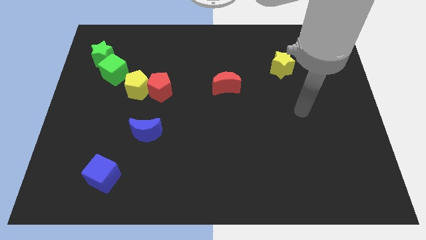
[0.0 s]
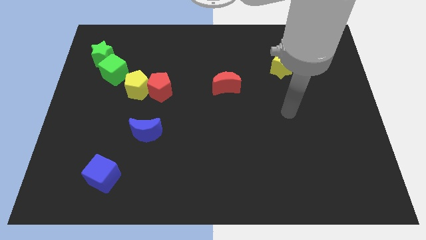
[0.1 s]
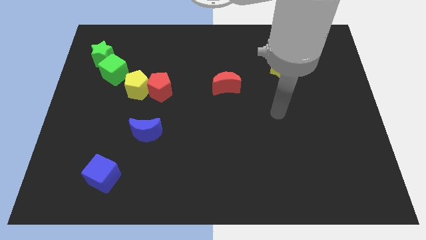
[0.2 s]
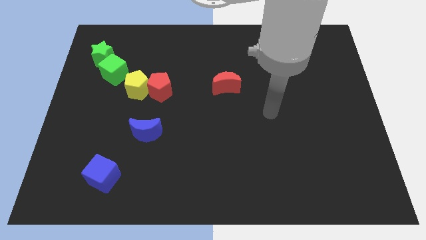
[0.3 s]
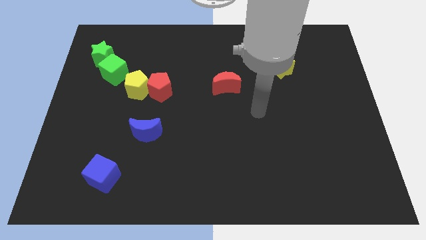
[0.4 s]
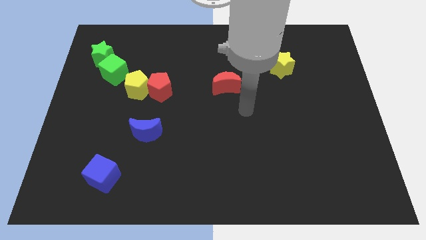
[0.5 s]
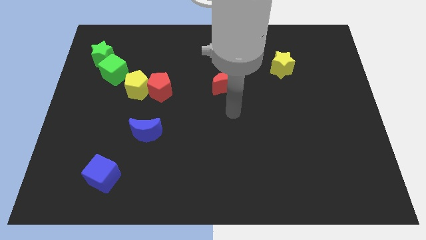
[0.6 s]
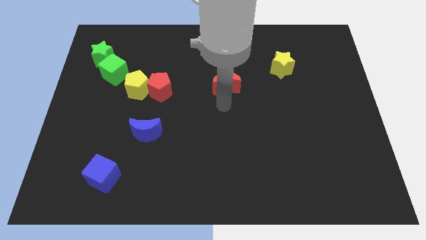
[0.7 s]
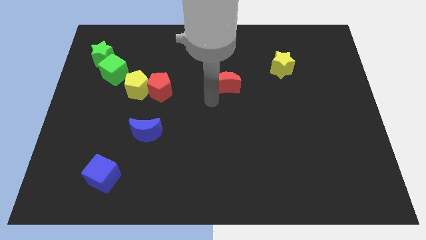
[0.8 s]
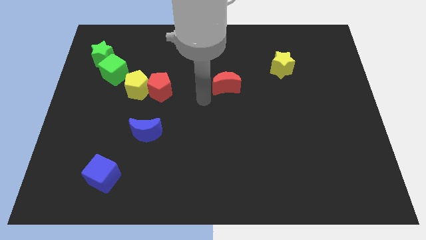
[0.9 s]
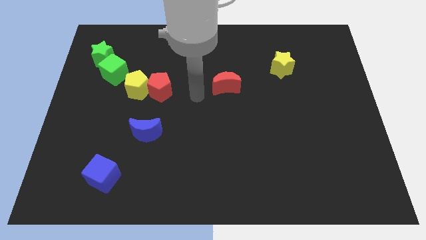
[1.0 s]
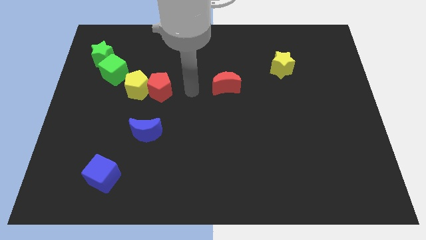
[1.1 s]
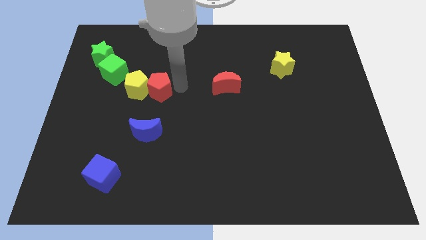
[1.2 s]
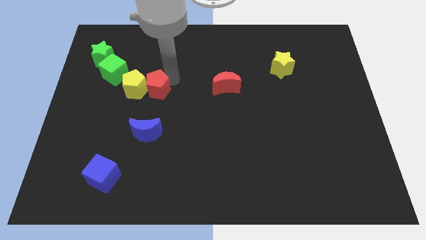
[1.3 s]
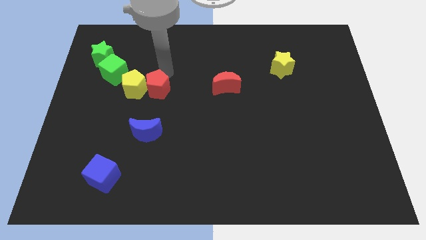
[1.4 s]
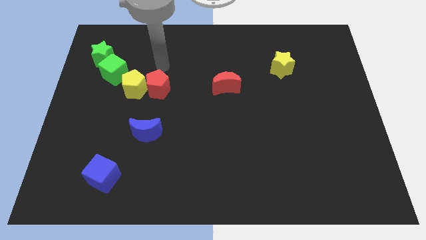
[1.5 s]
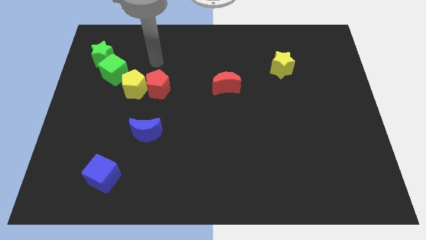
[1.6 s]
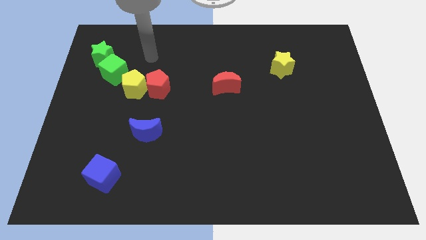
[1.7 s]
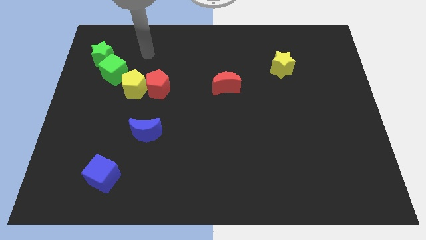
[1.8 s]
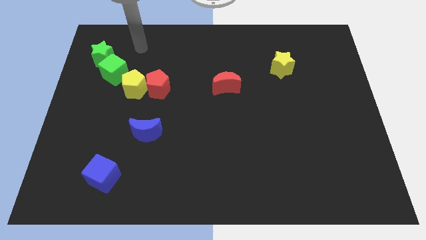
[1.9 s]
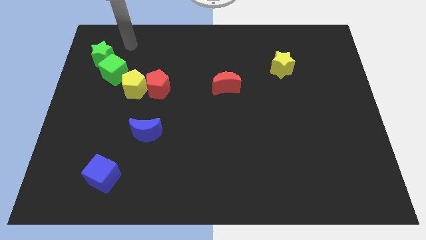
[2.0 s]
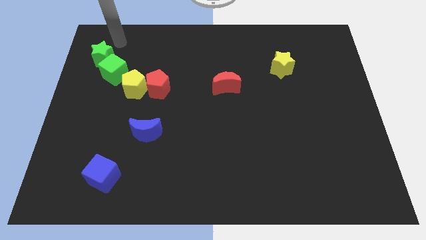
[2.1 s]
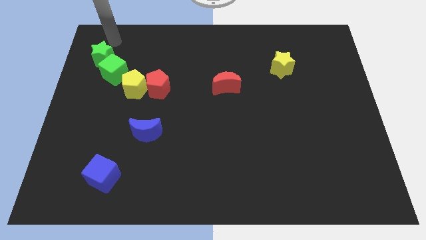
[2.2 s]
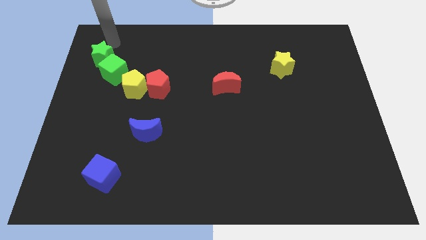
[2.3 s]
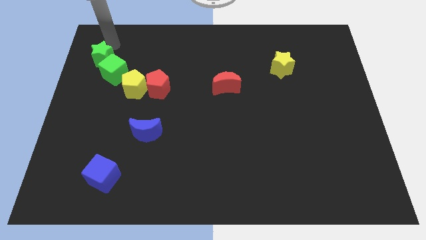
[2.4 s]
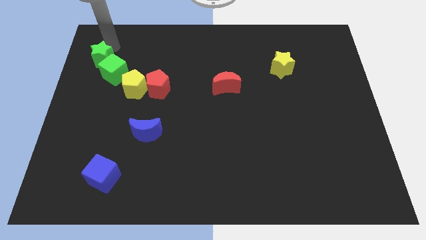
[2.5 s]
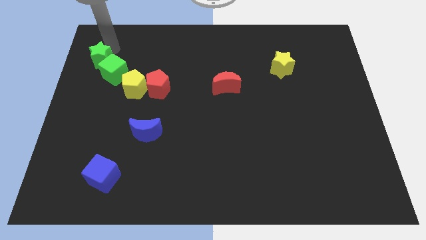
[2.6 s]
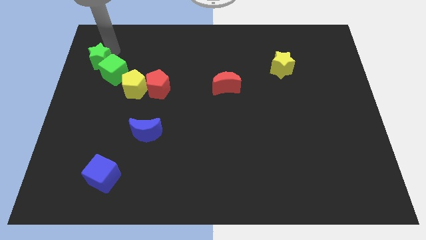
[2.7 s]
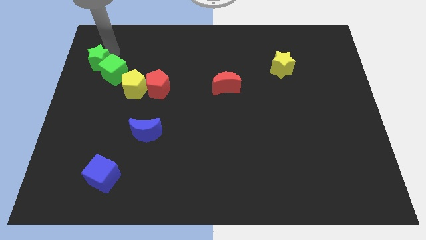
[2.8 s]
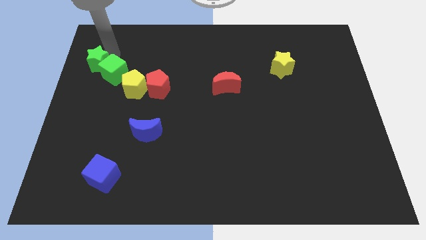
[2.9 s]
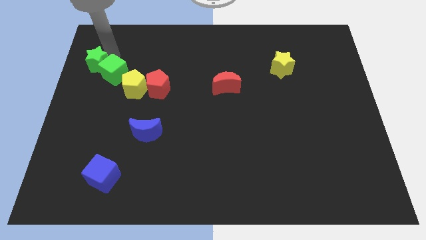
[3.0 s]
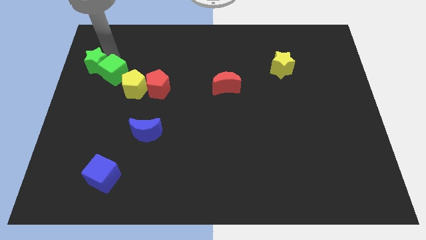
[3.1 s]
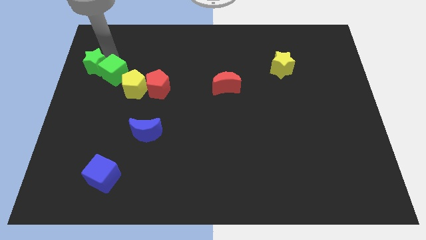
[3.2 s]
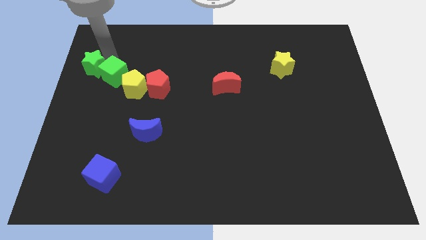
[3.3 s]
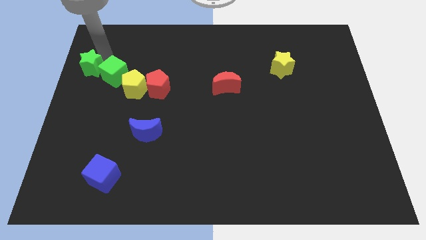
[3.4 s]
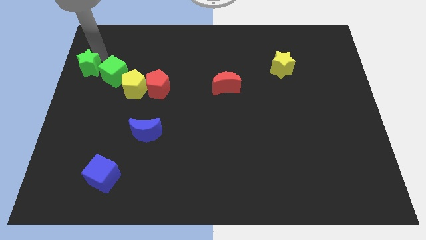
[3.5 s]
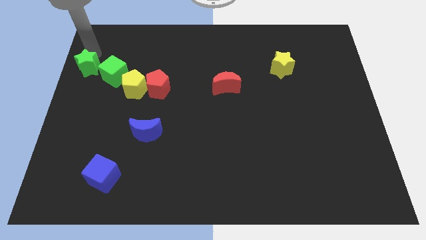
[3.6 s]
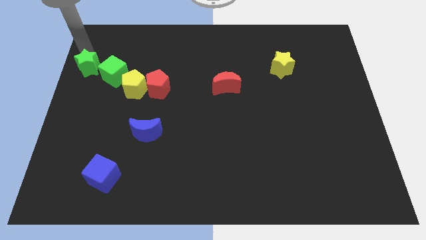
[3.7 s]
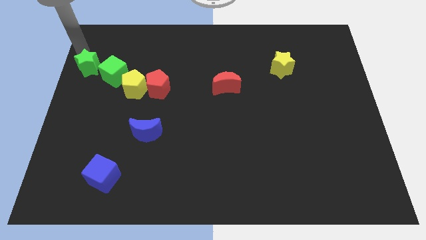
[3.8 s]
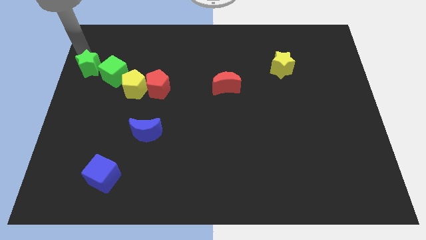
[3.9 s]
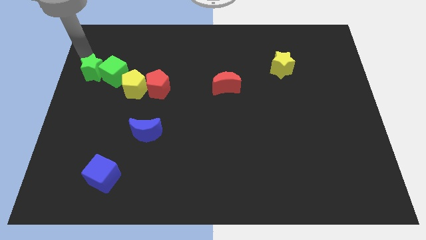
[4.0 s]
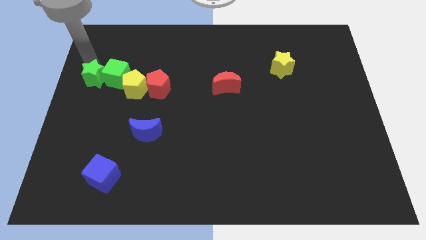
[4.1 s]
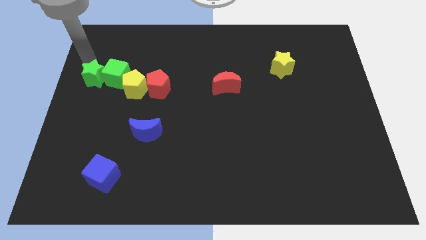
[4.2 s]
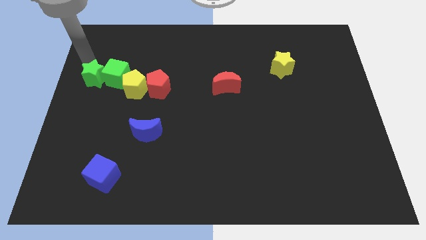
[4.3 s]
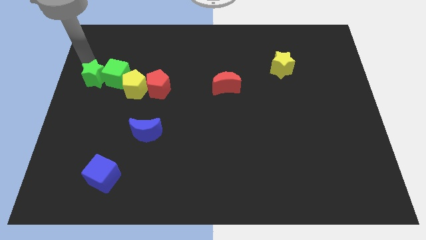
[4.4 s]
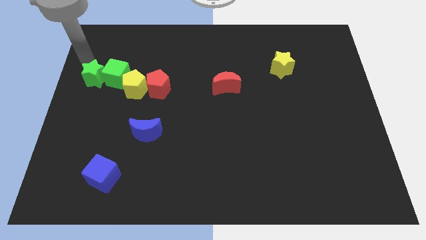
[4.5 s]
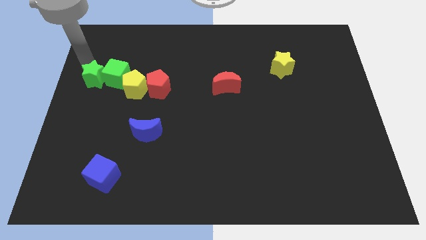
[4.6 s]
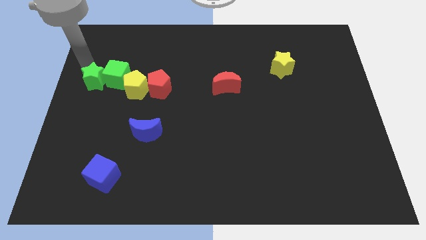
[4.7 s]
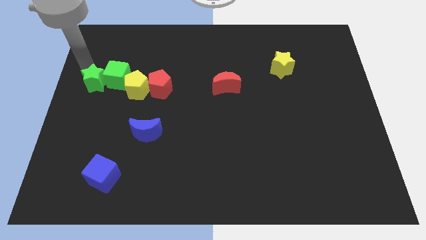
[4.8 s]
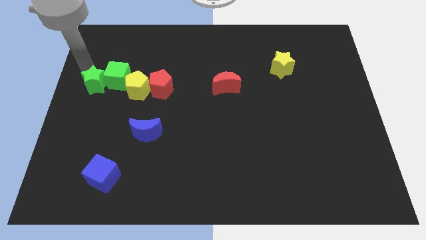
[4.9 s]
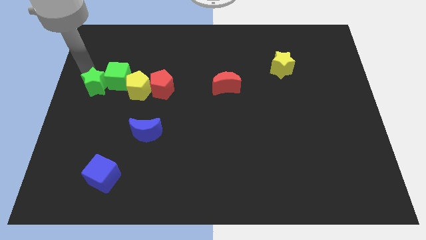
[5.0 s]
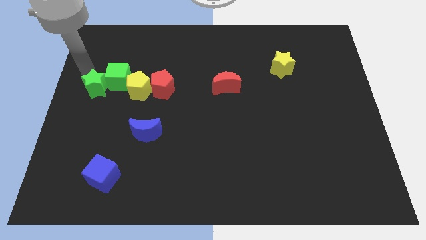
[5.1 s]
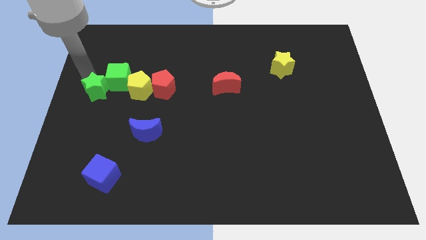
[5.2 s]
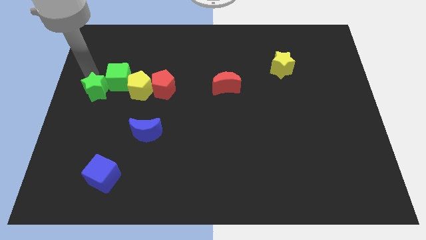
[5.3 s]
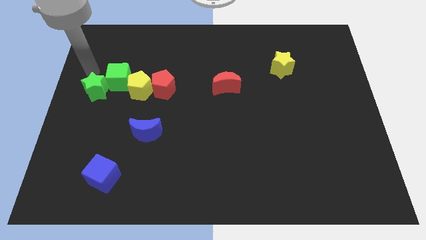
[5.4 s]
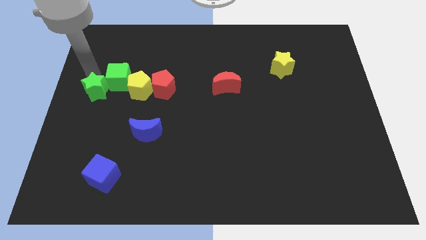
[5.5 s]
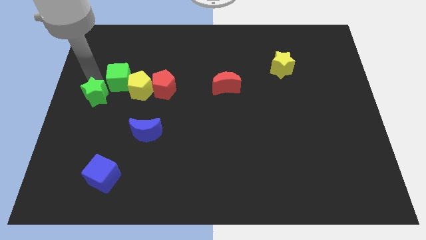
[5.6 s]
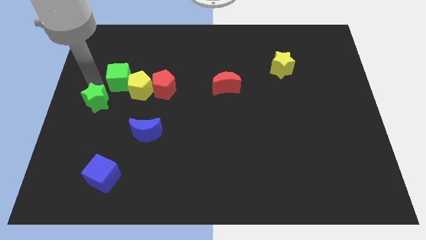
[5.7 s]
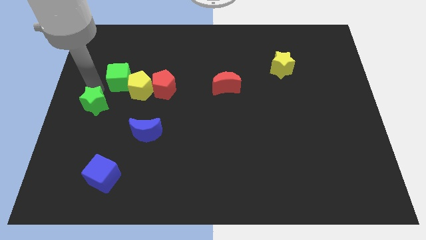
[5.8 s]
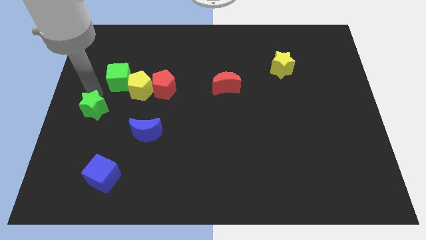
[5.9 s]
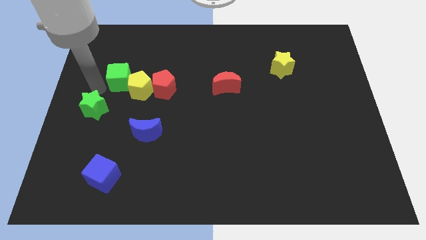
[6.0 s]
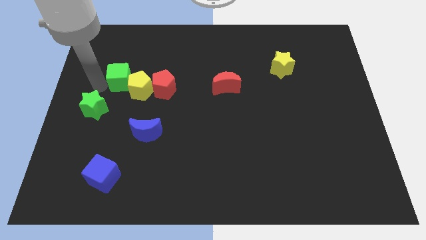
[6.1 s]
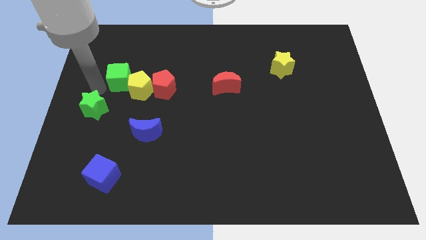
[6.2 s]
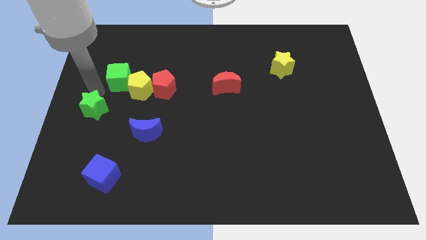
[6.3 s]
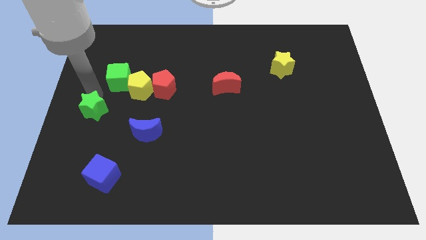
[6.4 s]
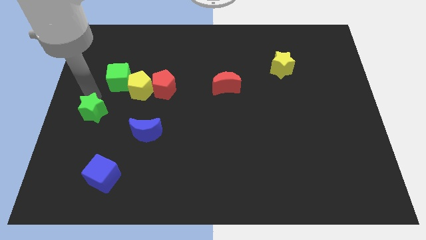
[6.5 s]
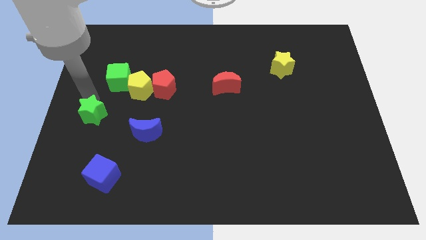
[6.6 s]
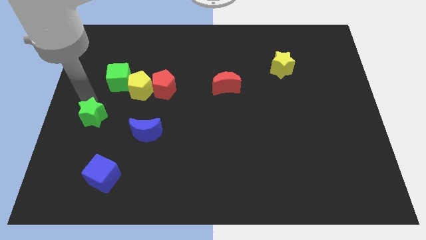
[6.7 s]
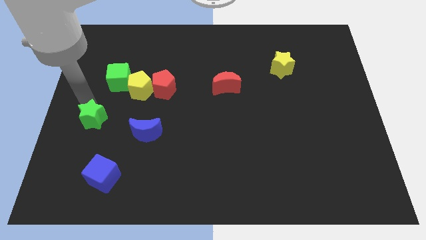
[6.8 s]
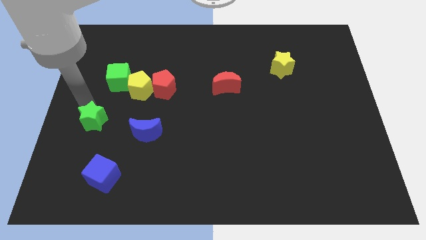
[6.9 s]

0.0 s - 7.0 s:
push the green star downwards

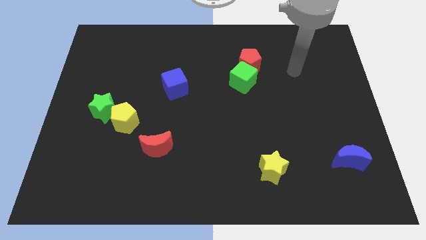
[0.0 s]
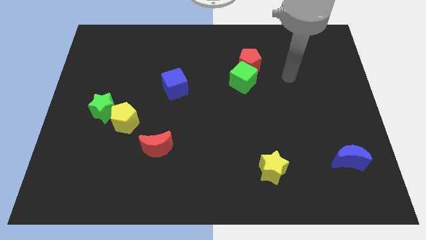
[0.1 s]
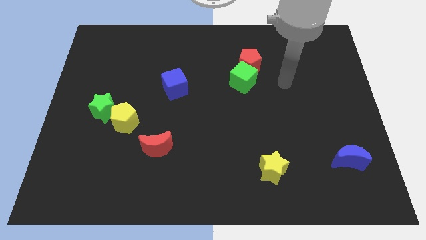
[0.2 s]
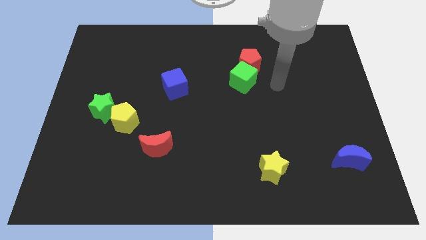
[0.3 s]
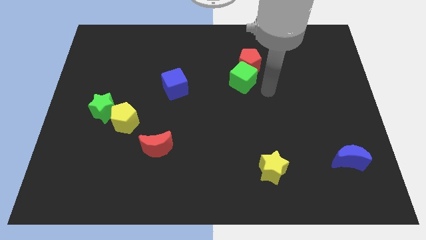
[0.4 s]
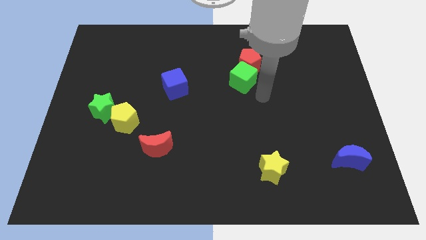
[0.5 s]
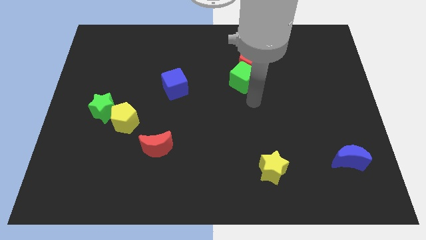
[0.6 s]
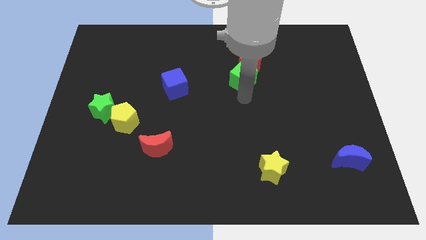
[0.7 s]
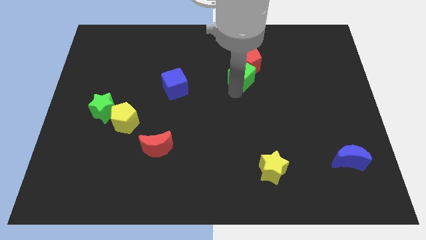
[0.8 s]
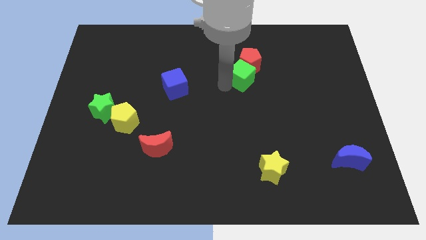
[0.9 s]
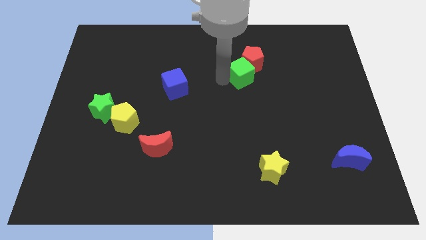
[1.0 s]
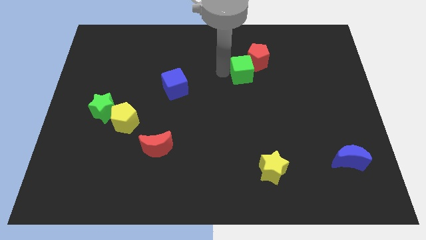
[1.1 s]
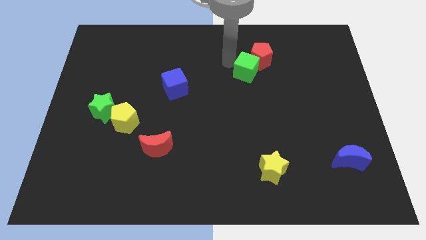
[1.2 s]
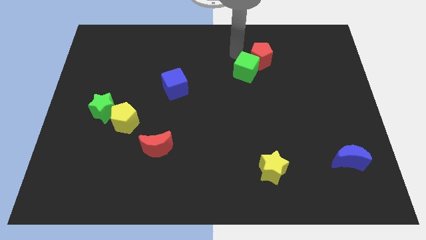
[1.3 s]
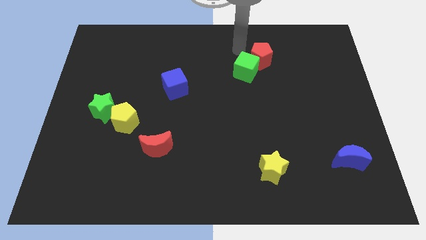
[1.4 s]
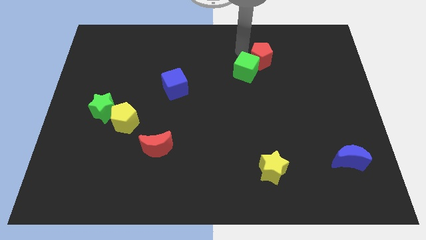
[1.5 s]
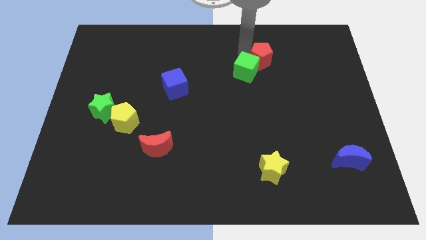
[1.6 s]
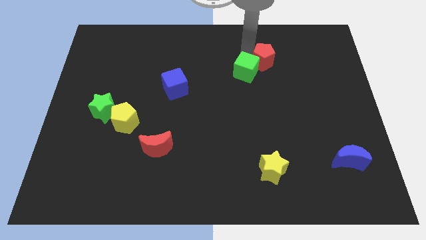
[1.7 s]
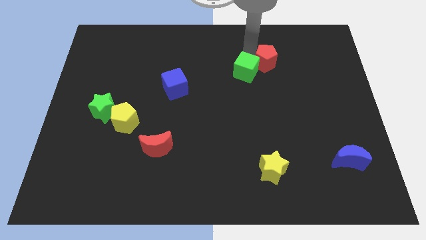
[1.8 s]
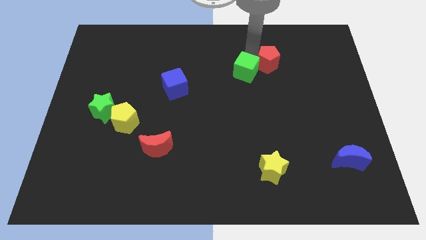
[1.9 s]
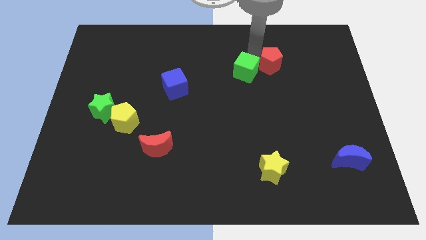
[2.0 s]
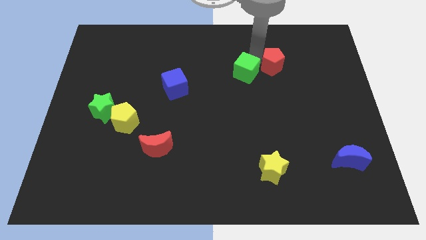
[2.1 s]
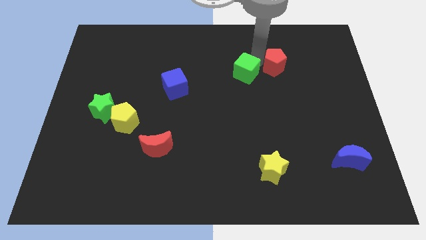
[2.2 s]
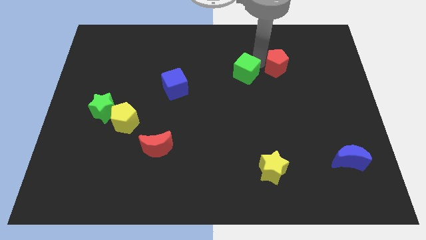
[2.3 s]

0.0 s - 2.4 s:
slightly push the red pentagon to the right
